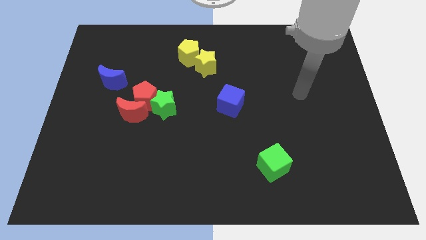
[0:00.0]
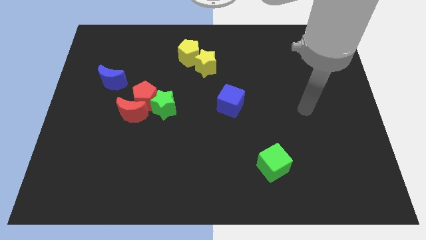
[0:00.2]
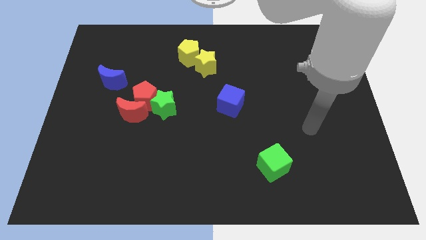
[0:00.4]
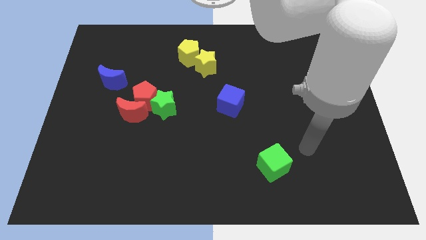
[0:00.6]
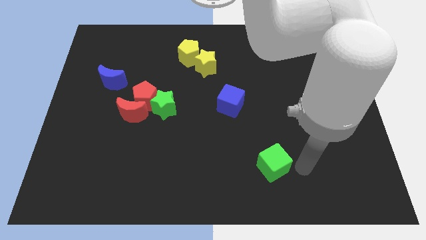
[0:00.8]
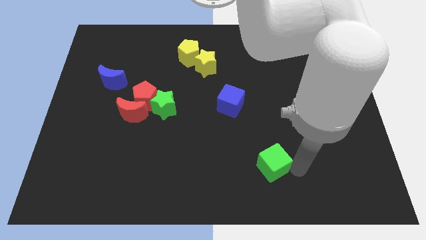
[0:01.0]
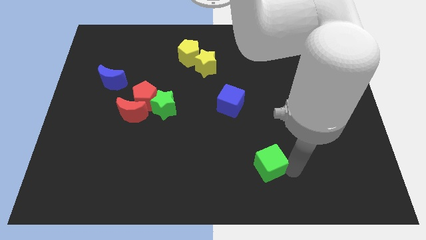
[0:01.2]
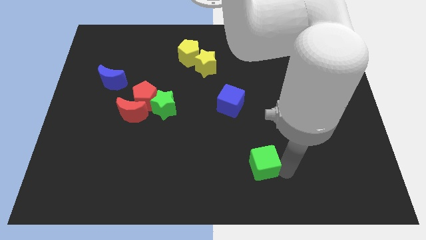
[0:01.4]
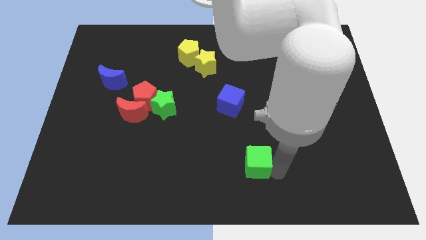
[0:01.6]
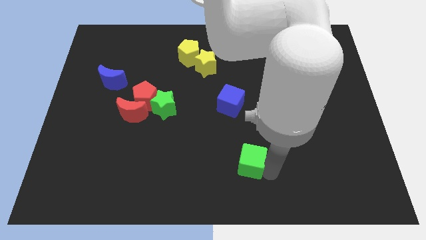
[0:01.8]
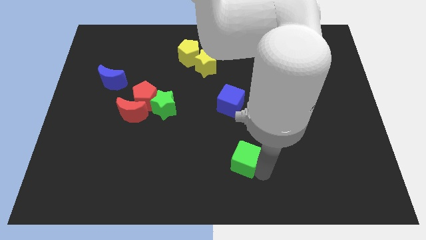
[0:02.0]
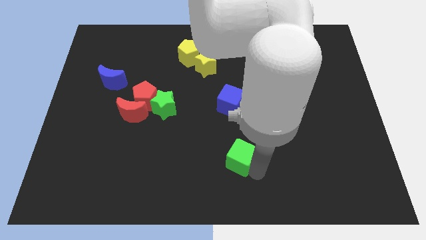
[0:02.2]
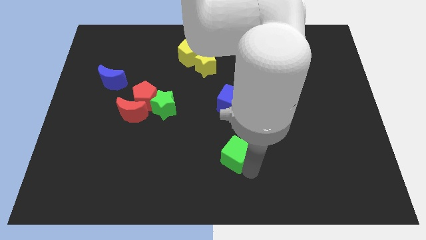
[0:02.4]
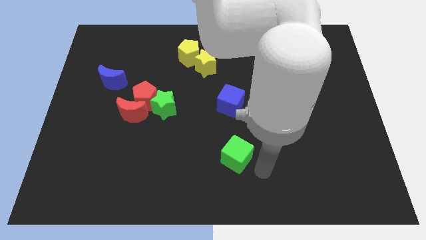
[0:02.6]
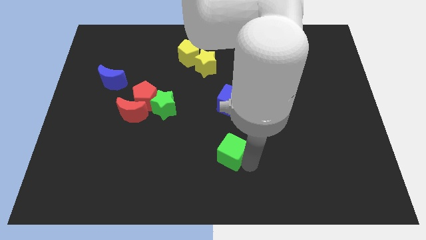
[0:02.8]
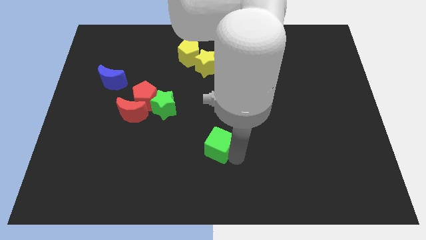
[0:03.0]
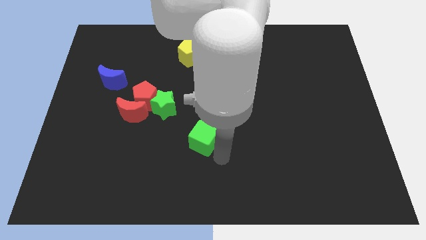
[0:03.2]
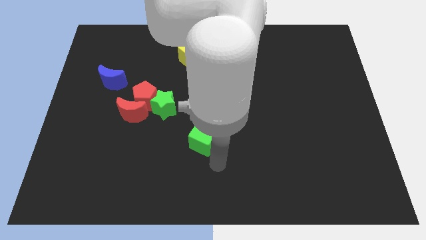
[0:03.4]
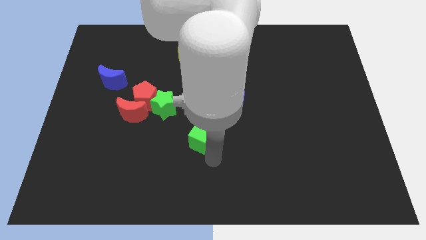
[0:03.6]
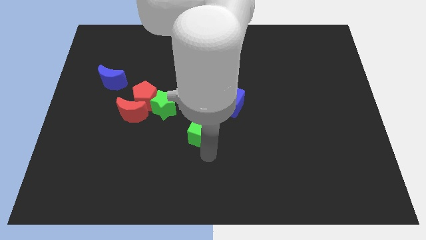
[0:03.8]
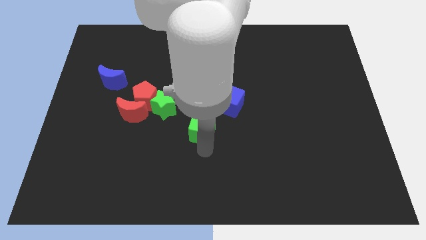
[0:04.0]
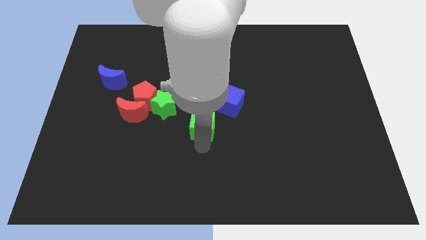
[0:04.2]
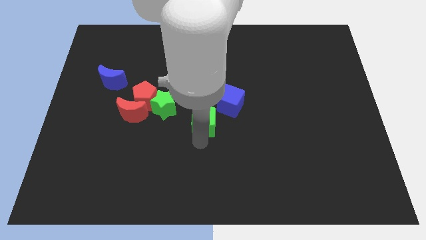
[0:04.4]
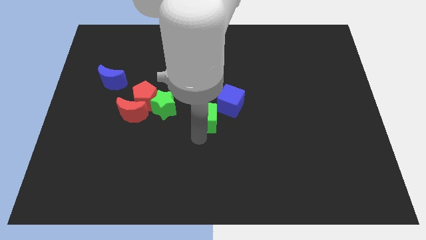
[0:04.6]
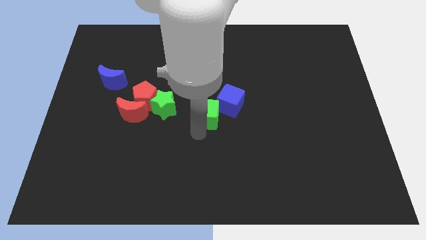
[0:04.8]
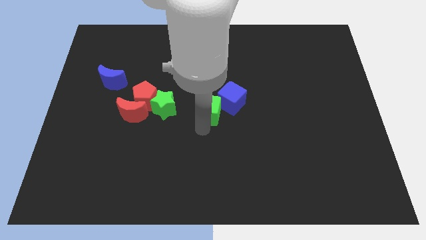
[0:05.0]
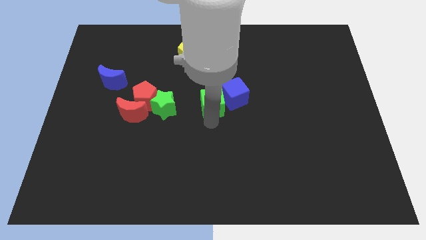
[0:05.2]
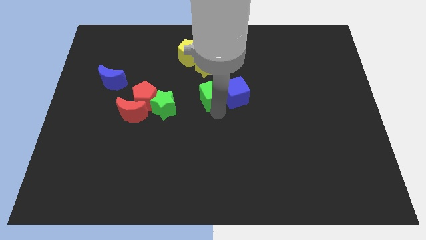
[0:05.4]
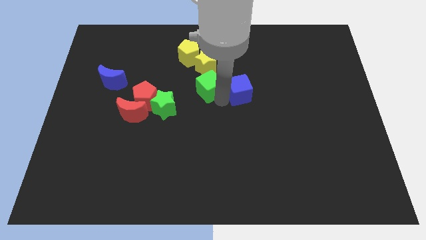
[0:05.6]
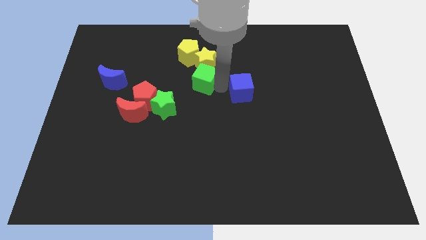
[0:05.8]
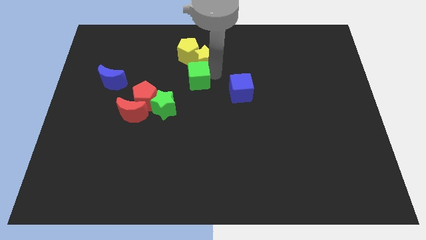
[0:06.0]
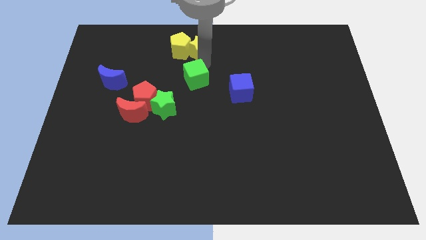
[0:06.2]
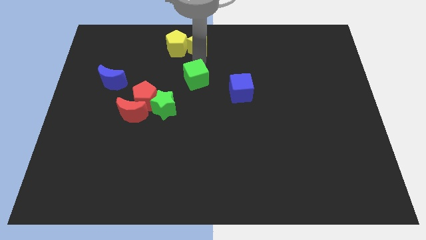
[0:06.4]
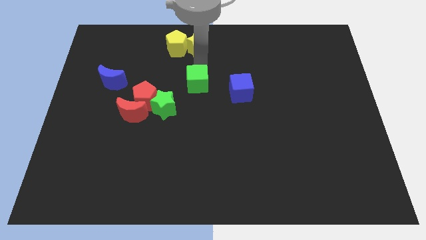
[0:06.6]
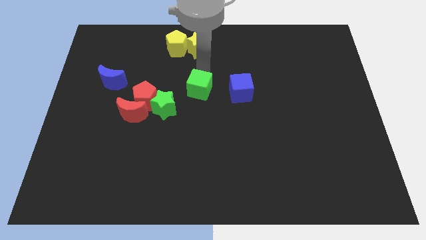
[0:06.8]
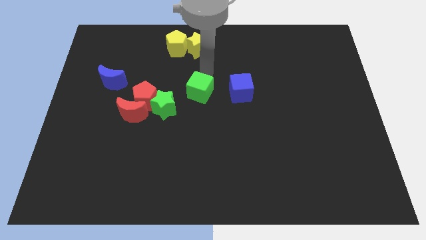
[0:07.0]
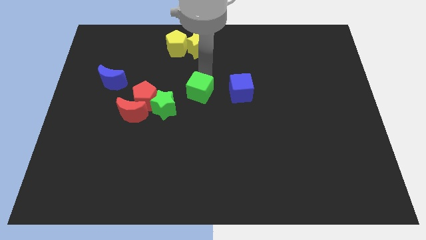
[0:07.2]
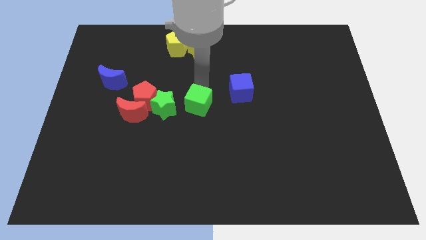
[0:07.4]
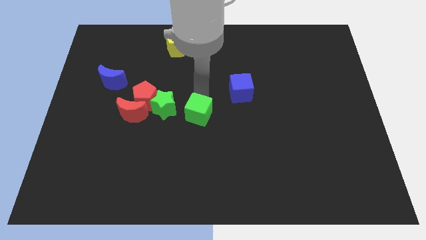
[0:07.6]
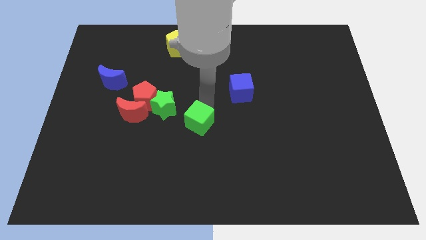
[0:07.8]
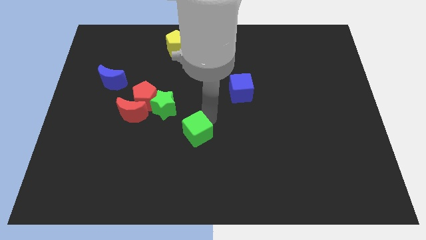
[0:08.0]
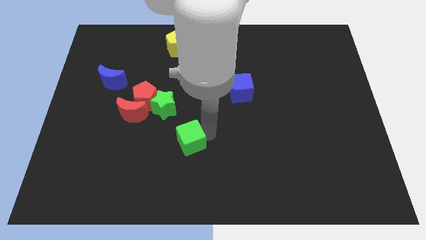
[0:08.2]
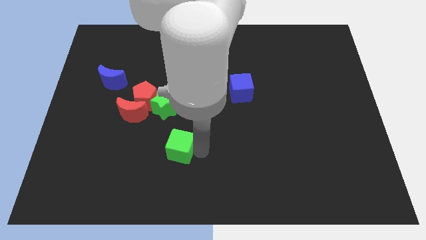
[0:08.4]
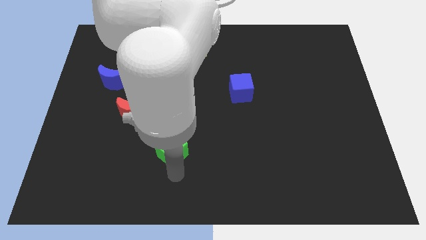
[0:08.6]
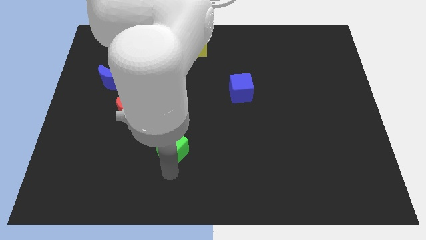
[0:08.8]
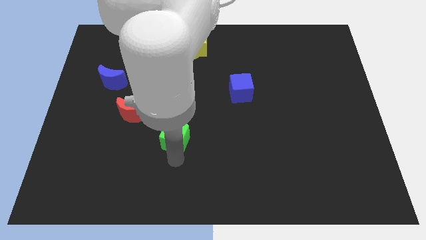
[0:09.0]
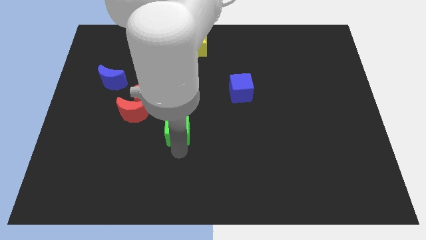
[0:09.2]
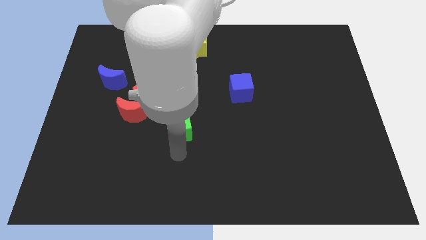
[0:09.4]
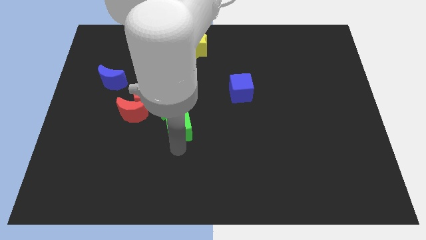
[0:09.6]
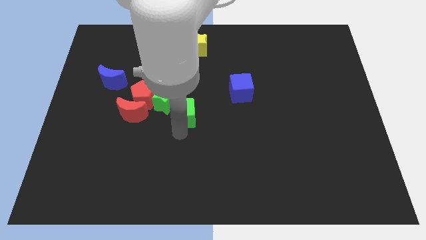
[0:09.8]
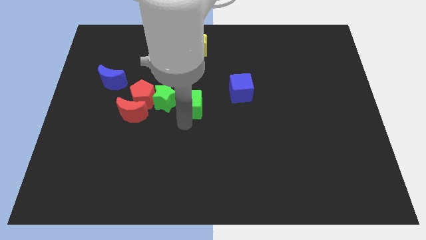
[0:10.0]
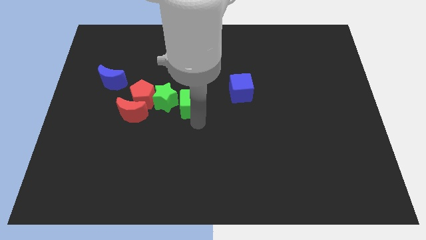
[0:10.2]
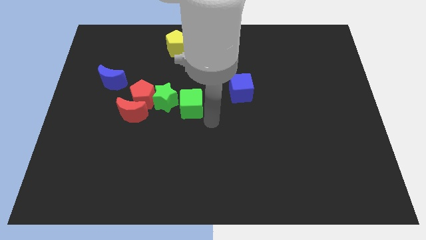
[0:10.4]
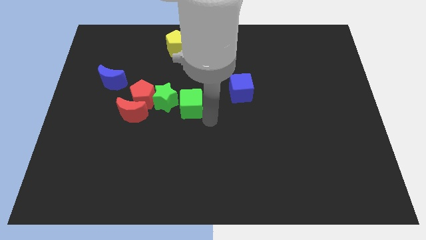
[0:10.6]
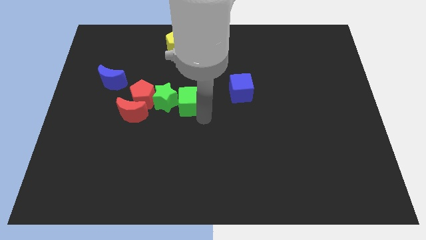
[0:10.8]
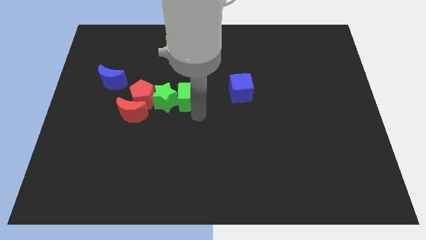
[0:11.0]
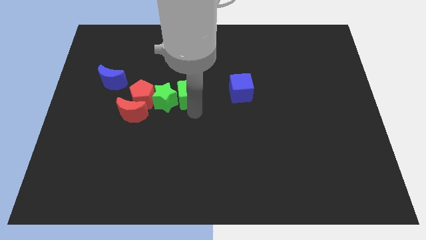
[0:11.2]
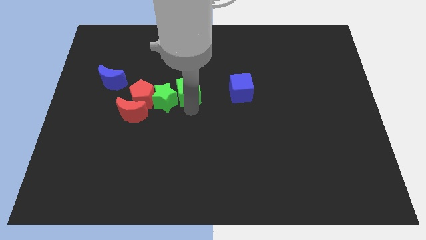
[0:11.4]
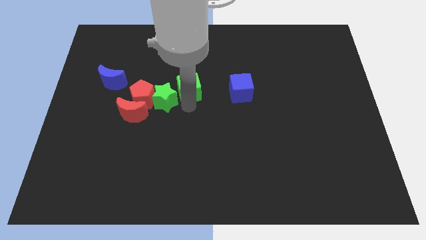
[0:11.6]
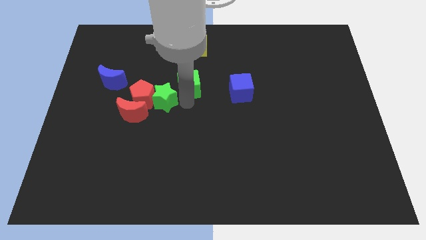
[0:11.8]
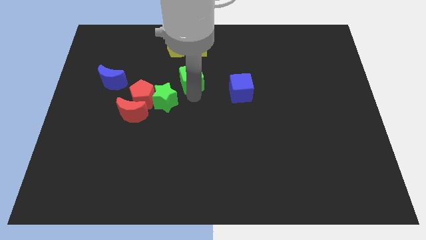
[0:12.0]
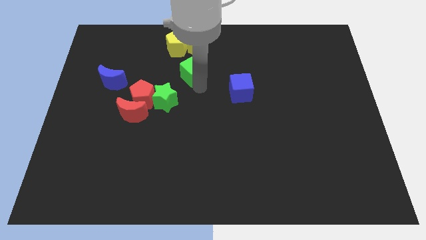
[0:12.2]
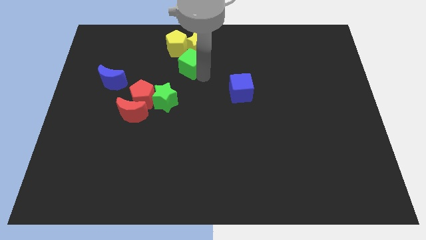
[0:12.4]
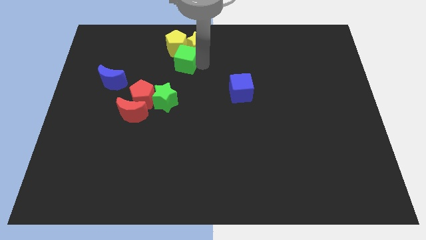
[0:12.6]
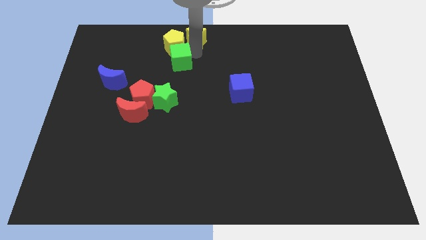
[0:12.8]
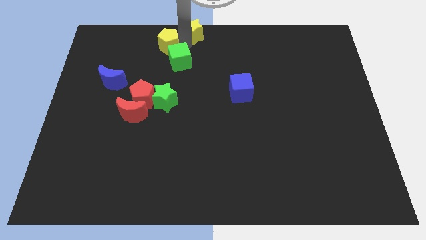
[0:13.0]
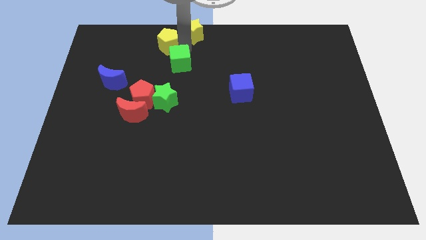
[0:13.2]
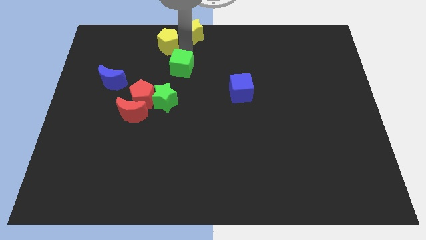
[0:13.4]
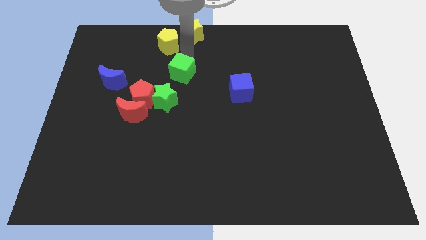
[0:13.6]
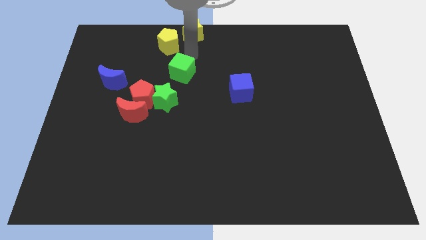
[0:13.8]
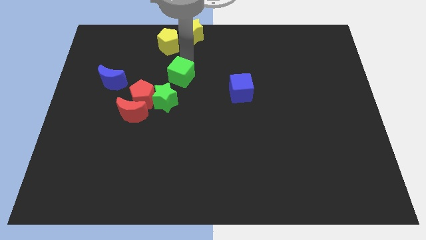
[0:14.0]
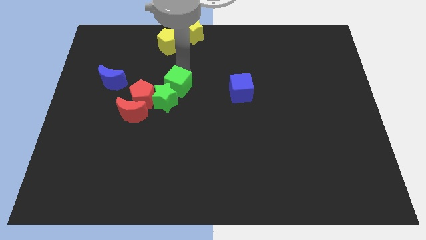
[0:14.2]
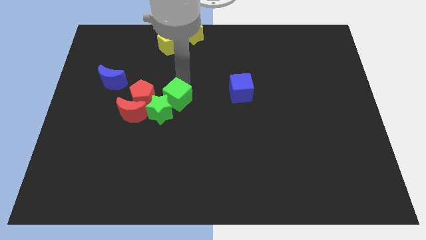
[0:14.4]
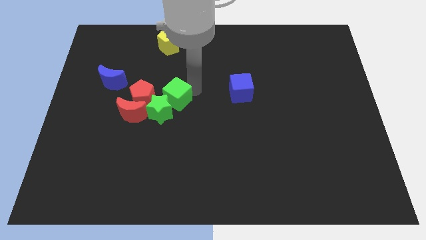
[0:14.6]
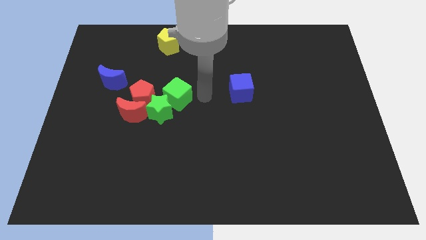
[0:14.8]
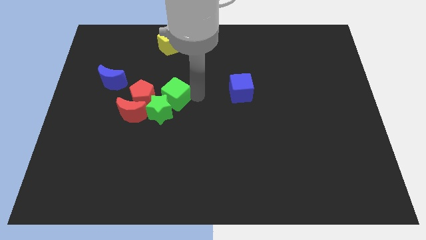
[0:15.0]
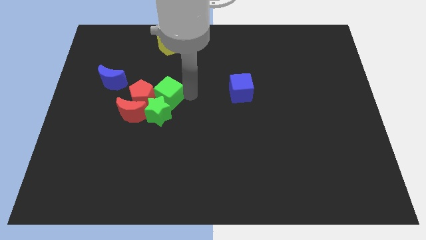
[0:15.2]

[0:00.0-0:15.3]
slide the green cube next to the red pentagon
